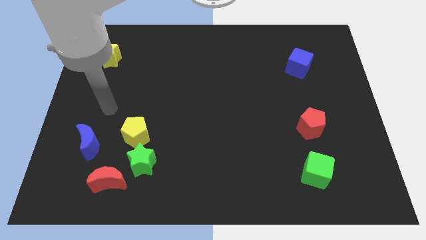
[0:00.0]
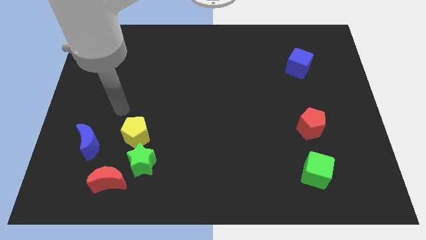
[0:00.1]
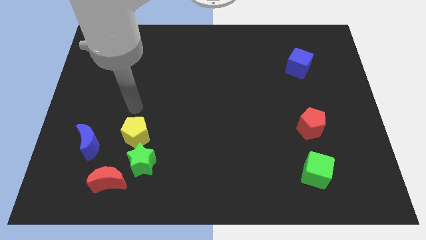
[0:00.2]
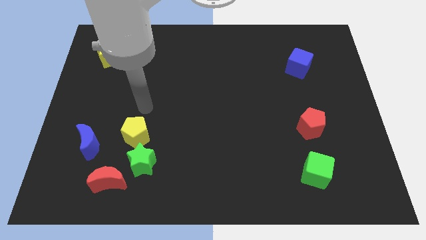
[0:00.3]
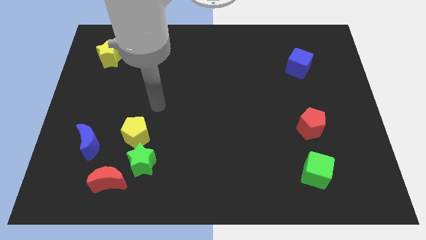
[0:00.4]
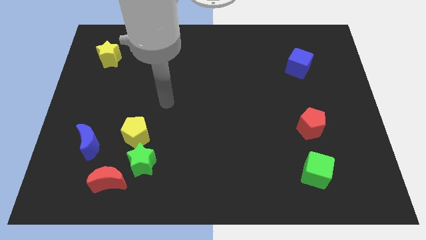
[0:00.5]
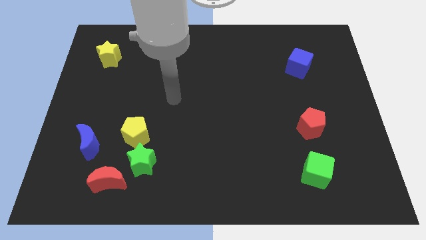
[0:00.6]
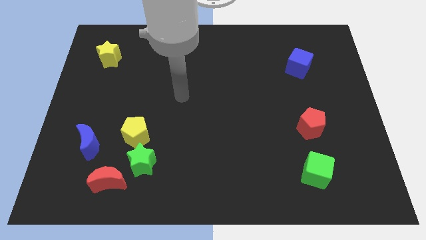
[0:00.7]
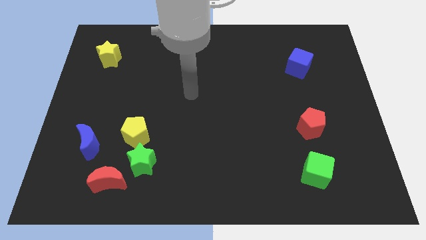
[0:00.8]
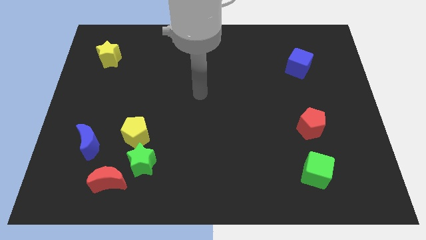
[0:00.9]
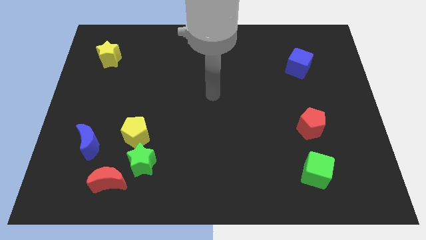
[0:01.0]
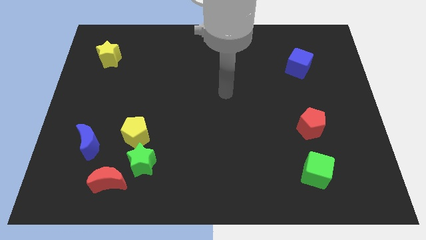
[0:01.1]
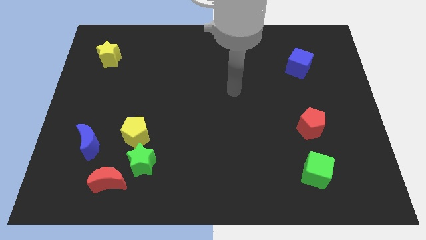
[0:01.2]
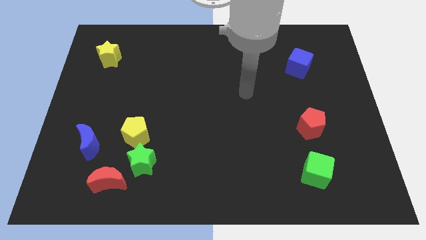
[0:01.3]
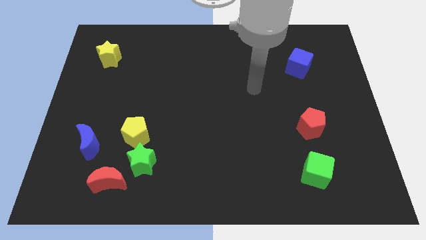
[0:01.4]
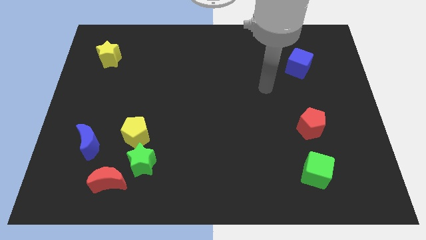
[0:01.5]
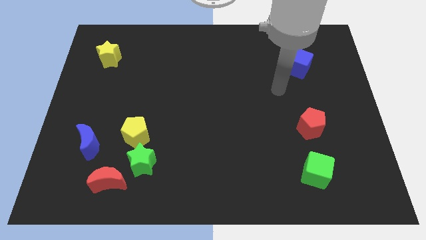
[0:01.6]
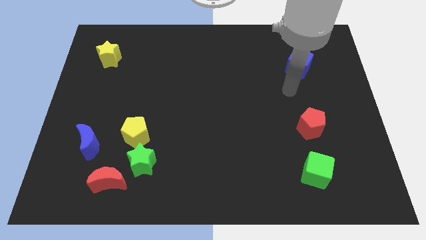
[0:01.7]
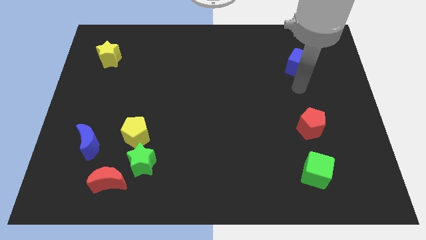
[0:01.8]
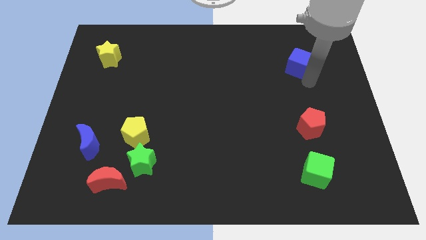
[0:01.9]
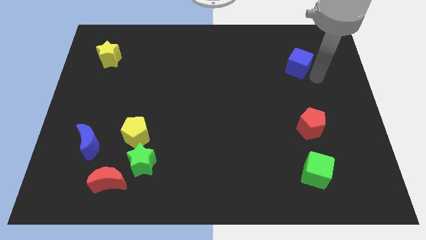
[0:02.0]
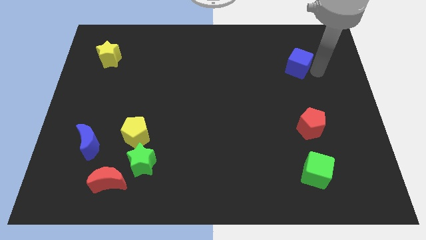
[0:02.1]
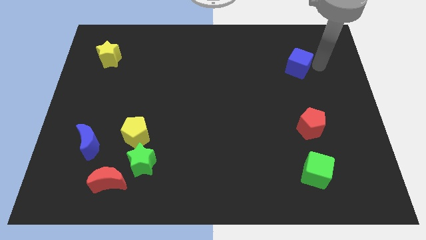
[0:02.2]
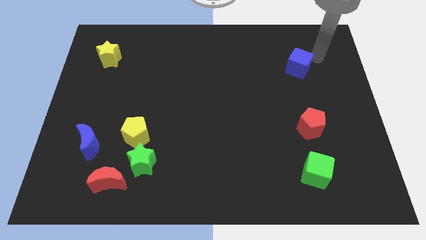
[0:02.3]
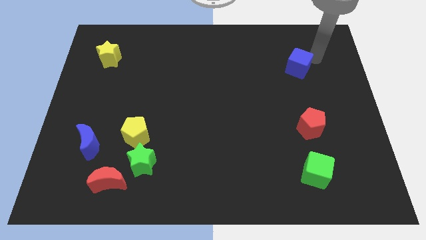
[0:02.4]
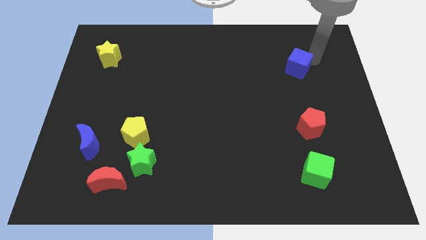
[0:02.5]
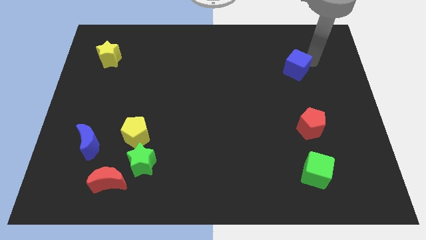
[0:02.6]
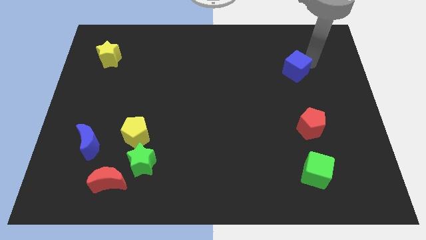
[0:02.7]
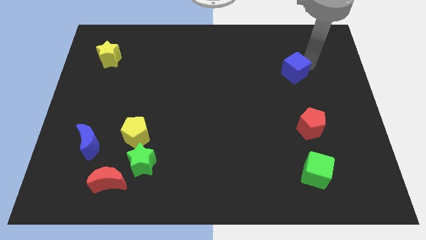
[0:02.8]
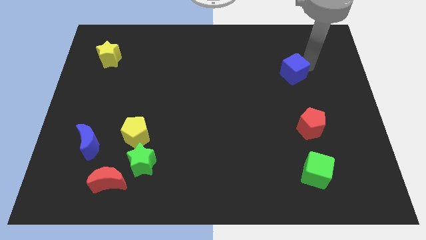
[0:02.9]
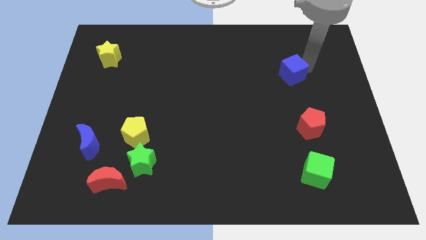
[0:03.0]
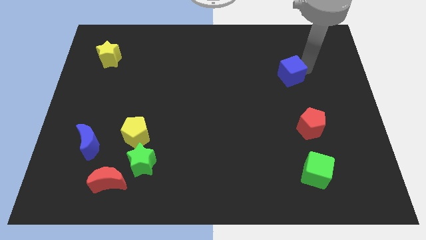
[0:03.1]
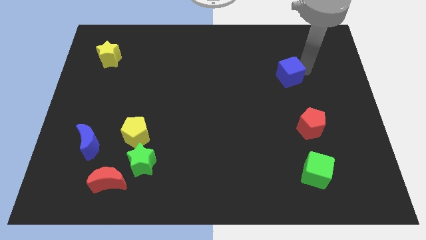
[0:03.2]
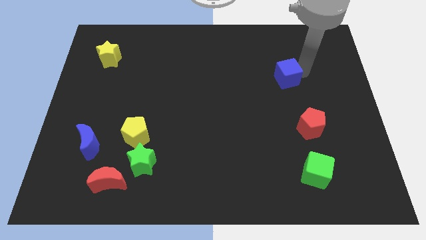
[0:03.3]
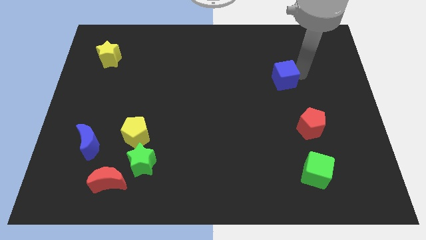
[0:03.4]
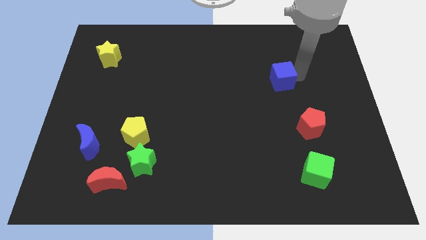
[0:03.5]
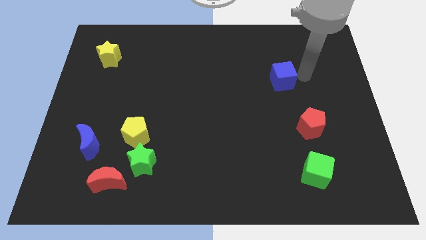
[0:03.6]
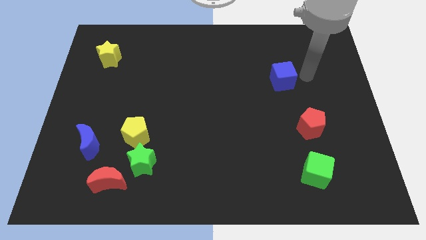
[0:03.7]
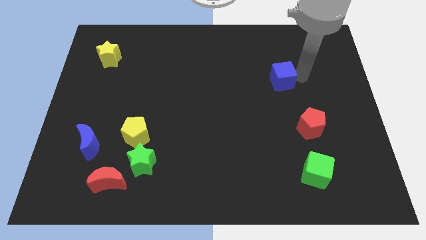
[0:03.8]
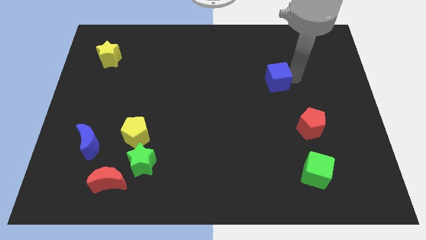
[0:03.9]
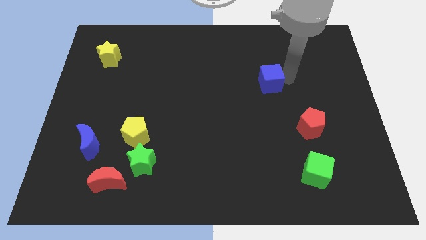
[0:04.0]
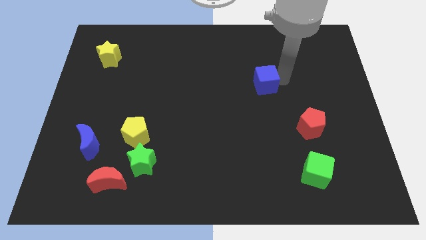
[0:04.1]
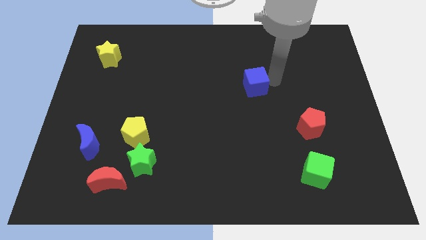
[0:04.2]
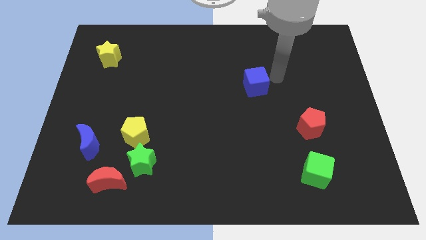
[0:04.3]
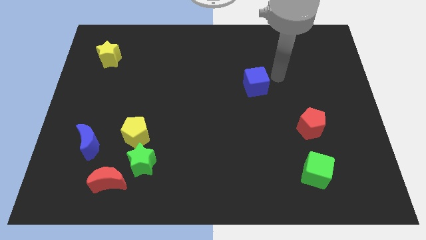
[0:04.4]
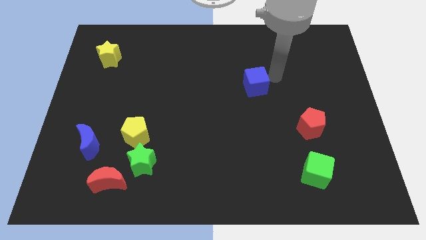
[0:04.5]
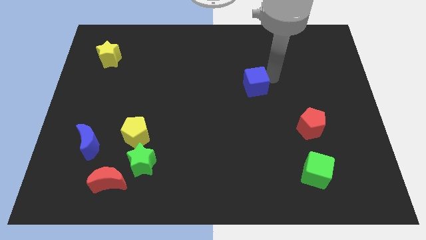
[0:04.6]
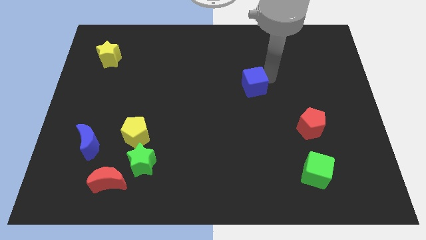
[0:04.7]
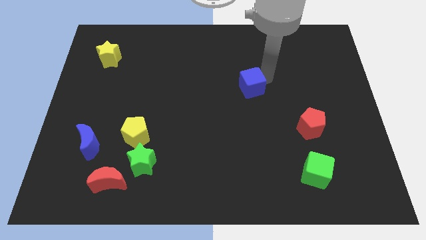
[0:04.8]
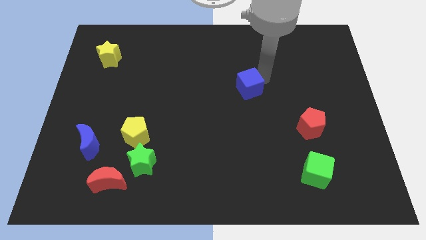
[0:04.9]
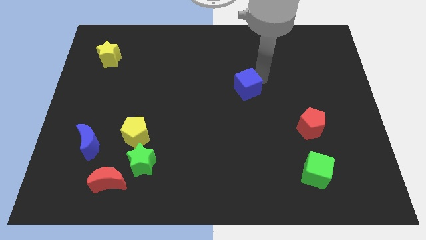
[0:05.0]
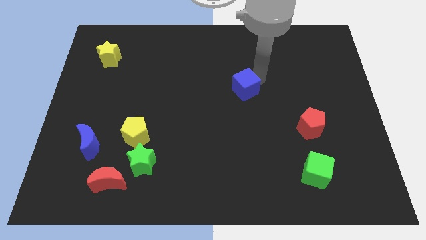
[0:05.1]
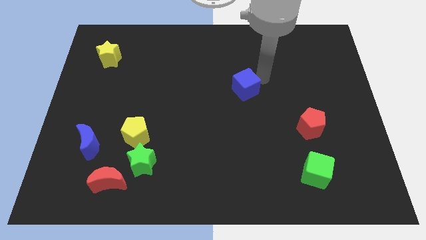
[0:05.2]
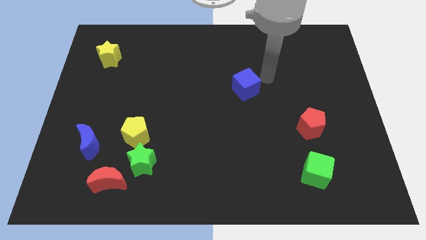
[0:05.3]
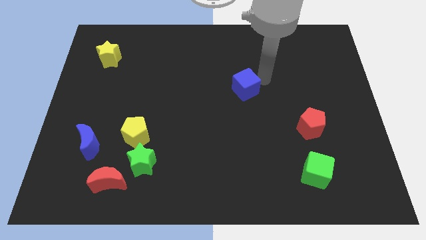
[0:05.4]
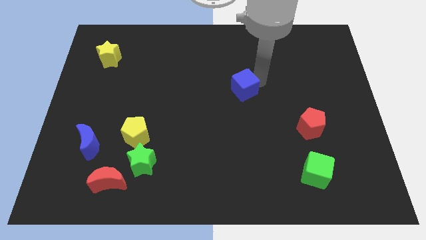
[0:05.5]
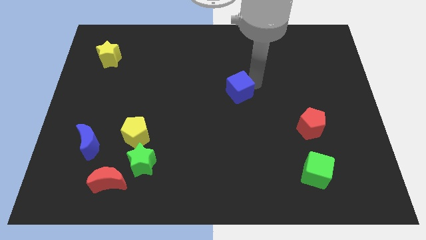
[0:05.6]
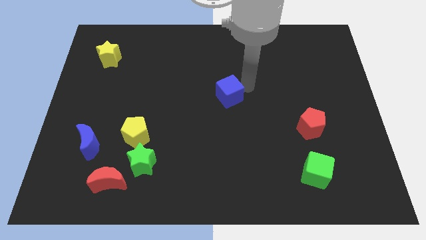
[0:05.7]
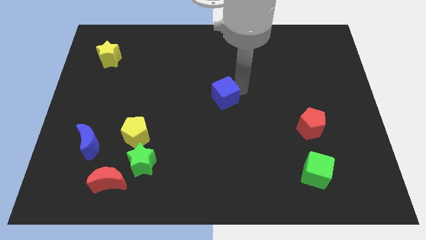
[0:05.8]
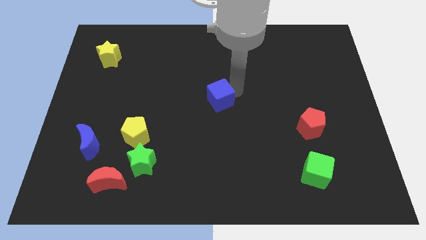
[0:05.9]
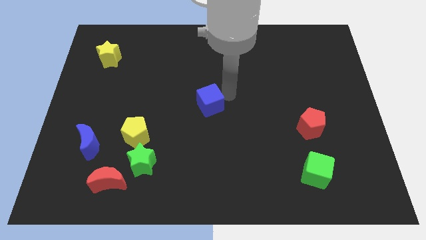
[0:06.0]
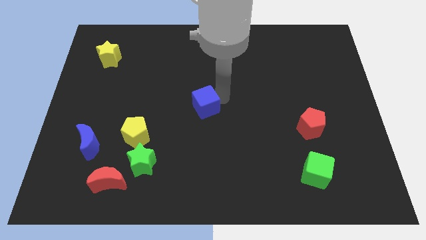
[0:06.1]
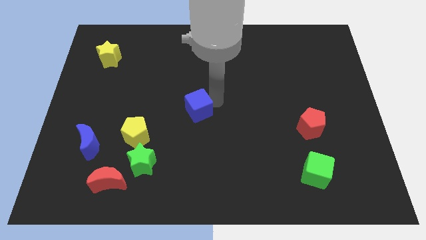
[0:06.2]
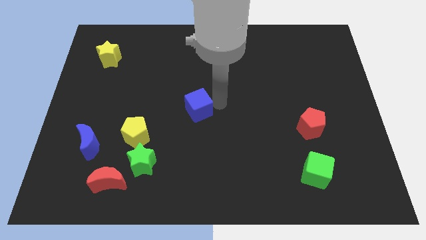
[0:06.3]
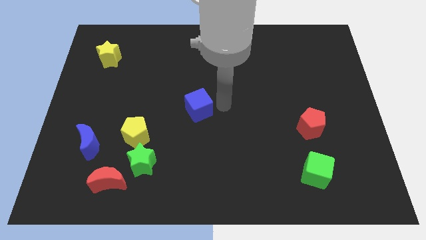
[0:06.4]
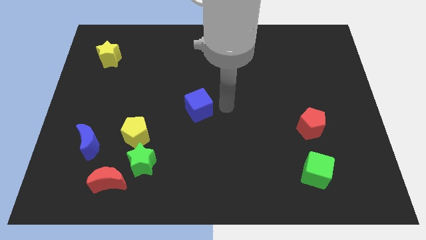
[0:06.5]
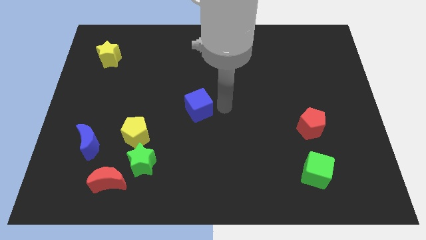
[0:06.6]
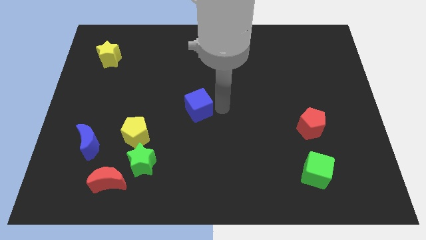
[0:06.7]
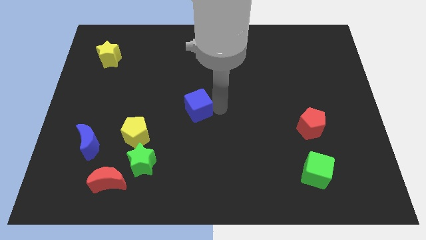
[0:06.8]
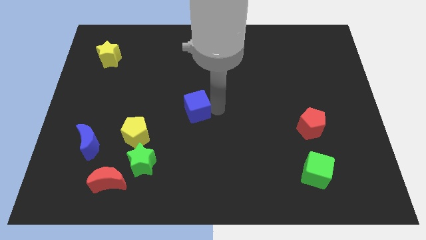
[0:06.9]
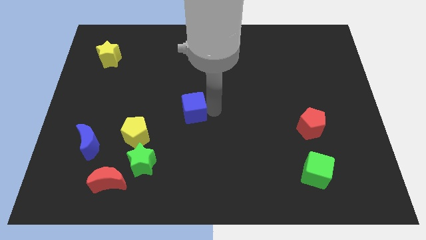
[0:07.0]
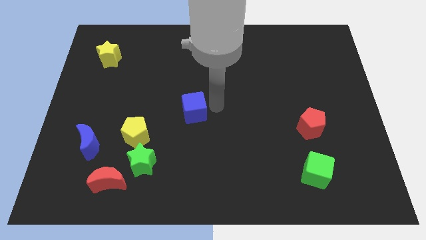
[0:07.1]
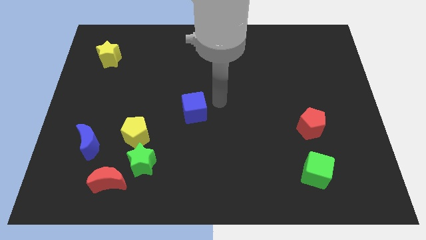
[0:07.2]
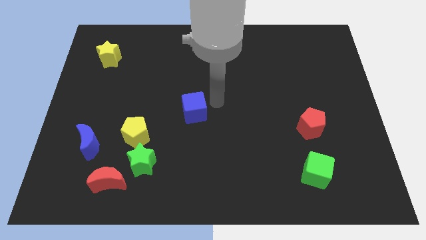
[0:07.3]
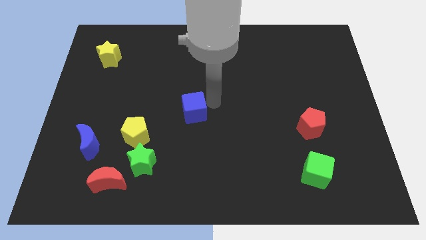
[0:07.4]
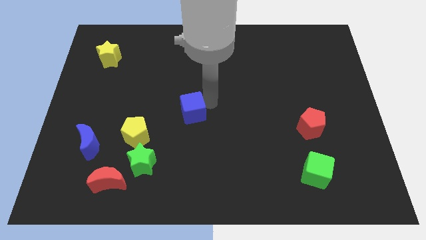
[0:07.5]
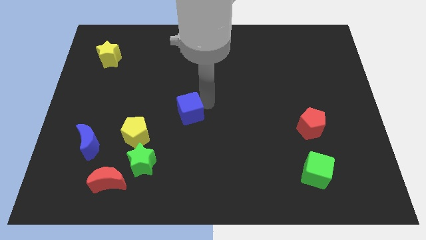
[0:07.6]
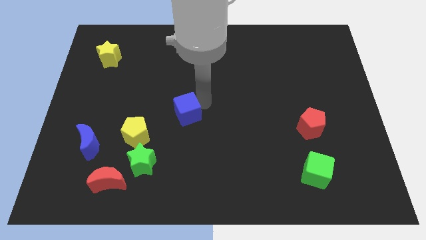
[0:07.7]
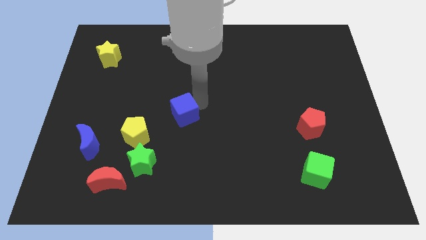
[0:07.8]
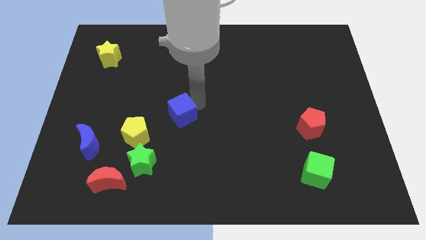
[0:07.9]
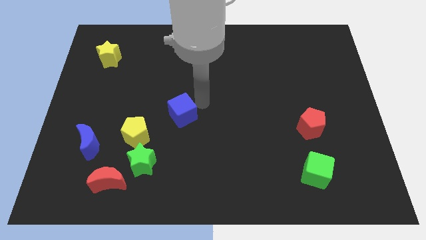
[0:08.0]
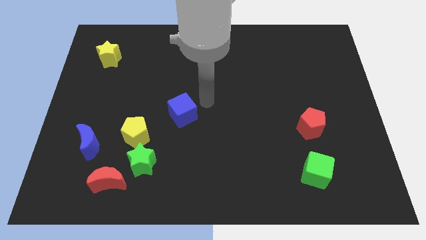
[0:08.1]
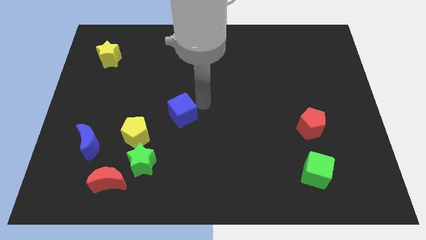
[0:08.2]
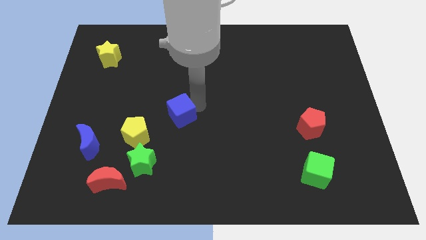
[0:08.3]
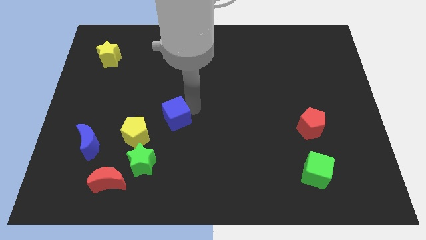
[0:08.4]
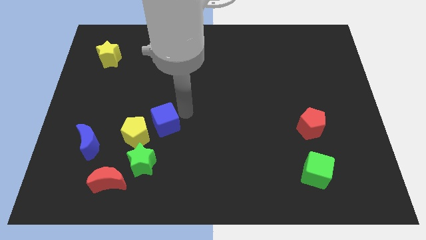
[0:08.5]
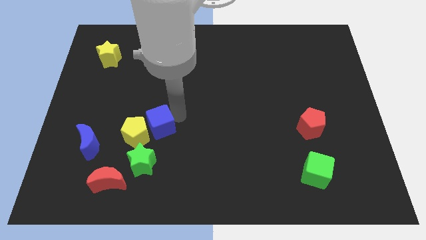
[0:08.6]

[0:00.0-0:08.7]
move the blue cube to the yellow pentagon
